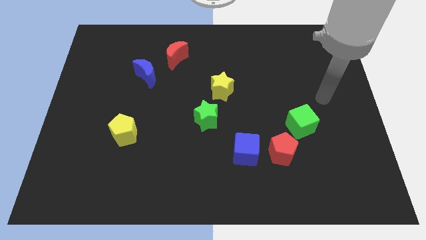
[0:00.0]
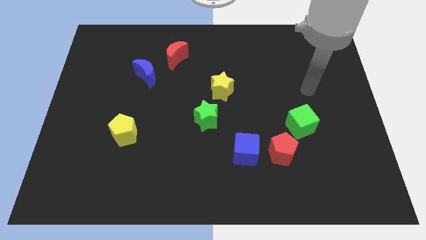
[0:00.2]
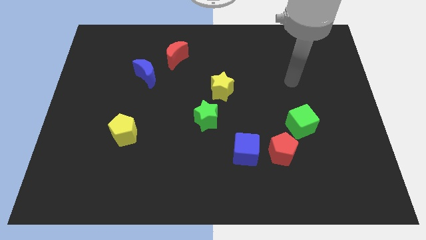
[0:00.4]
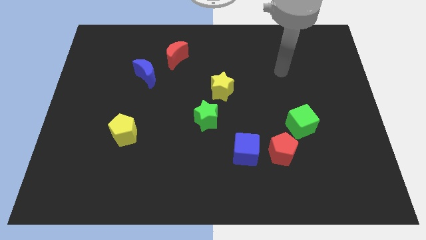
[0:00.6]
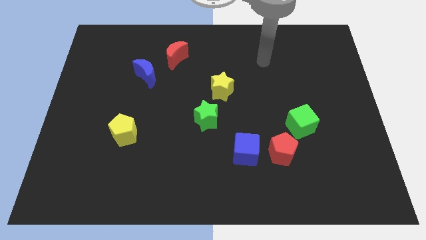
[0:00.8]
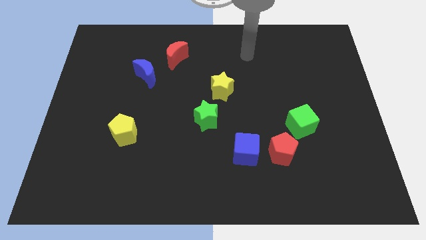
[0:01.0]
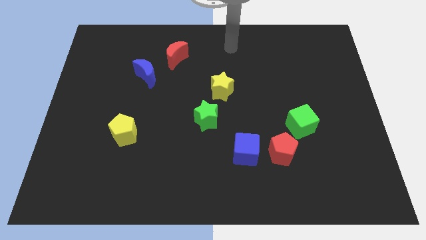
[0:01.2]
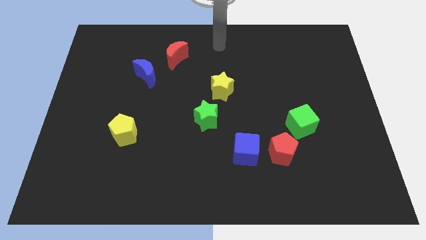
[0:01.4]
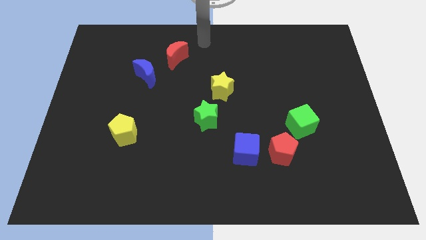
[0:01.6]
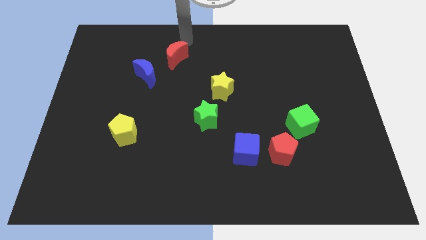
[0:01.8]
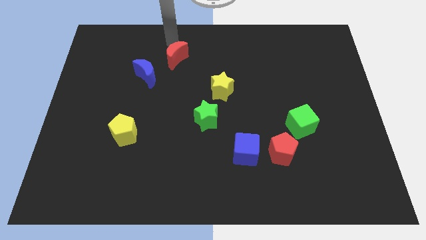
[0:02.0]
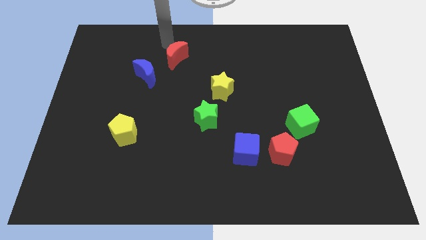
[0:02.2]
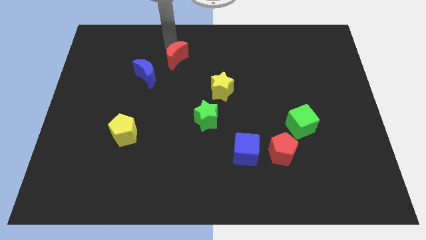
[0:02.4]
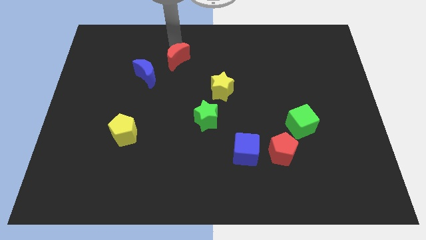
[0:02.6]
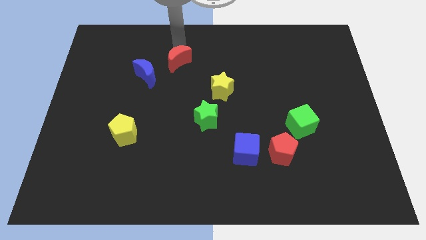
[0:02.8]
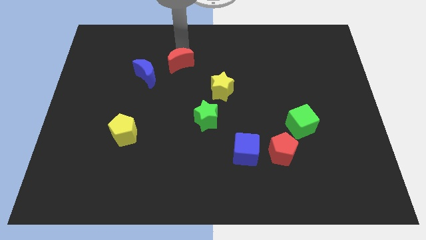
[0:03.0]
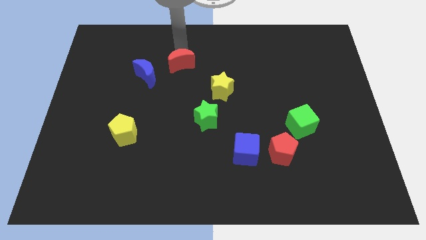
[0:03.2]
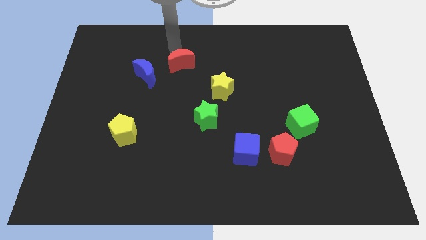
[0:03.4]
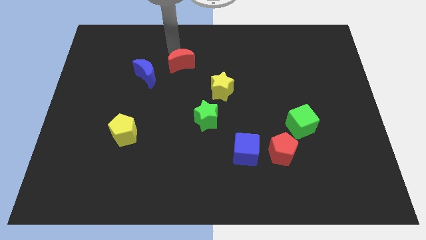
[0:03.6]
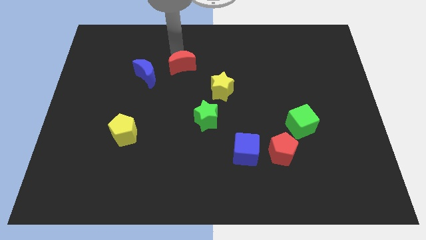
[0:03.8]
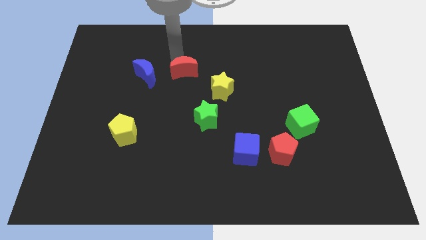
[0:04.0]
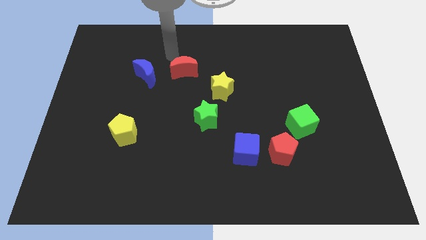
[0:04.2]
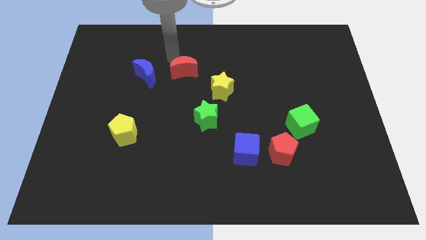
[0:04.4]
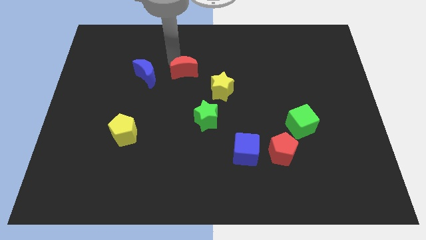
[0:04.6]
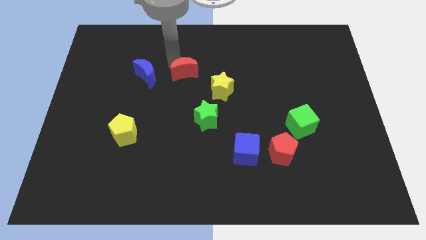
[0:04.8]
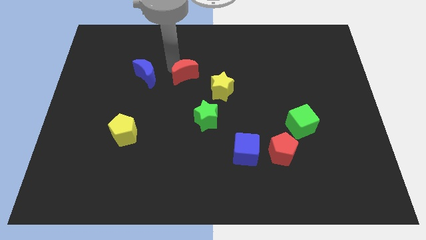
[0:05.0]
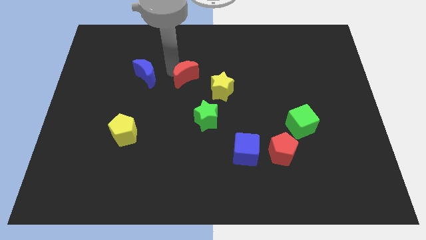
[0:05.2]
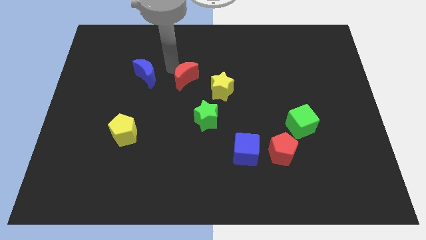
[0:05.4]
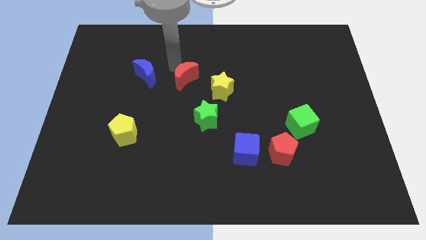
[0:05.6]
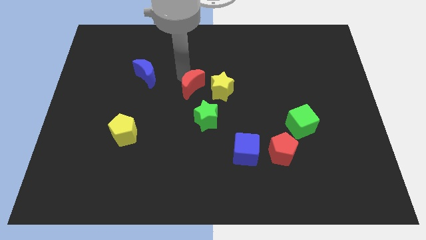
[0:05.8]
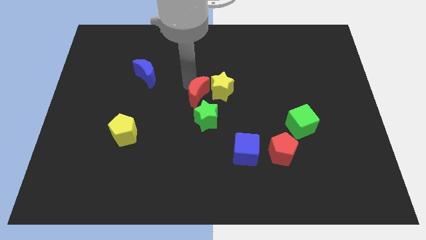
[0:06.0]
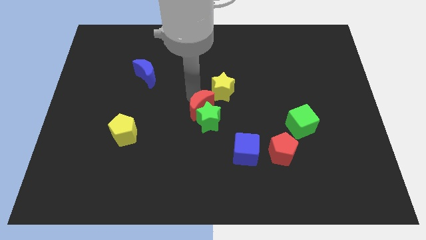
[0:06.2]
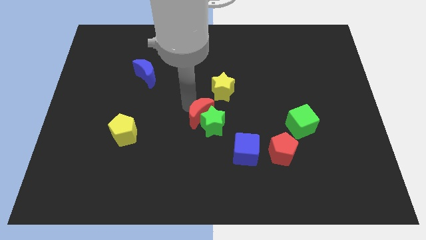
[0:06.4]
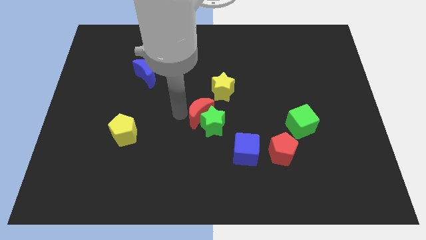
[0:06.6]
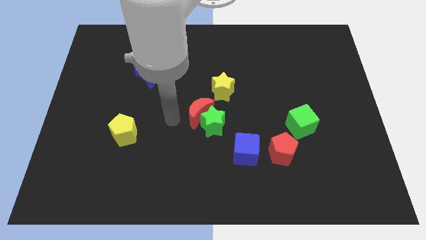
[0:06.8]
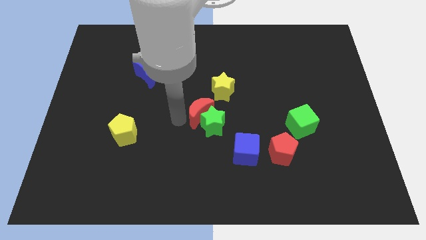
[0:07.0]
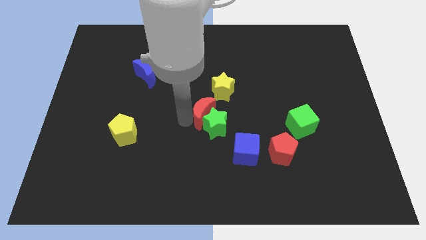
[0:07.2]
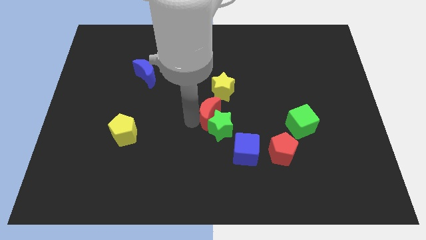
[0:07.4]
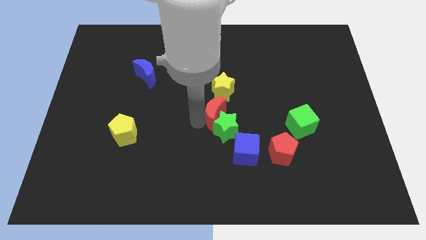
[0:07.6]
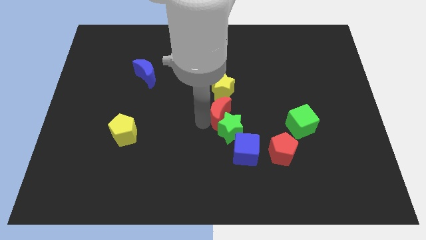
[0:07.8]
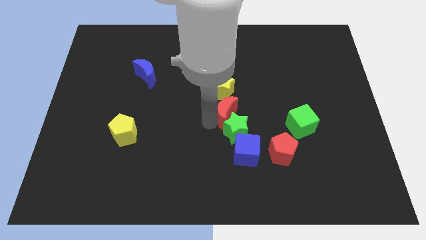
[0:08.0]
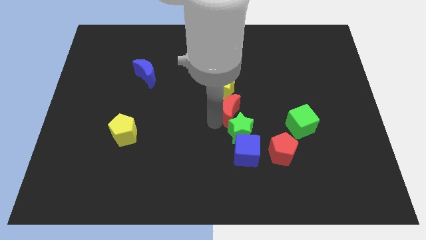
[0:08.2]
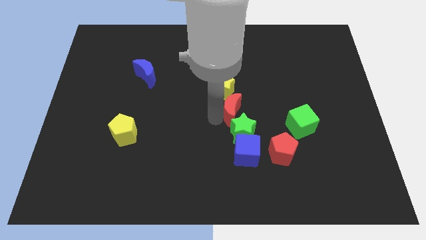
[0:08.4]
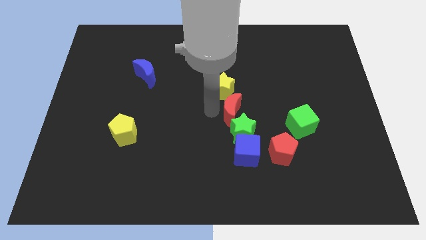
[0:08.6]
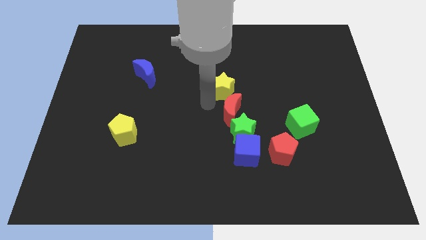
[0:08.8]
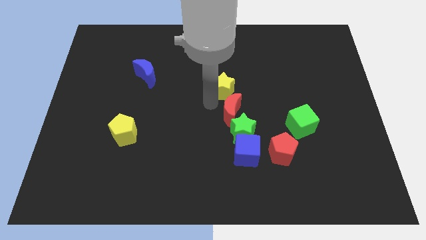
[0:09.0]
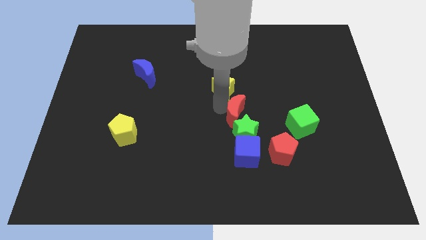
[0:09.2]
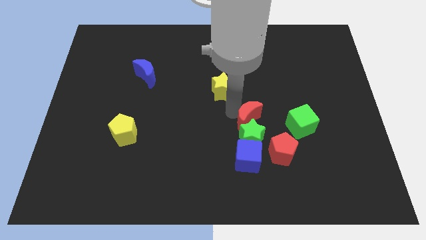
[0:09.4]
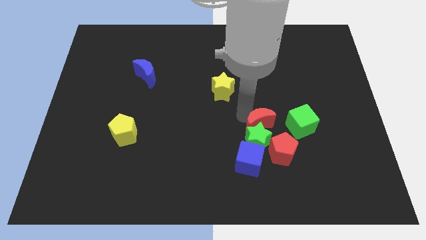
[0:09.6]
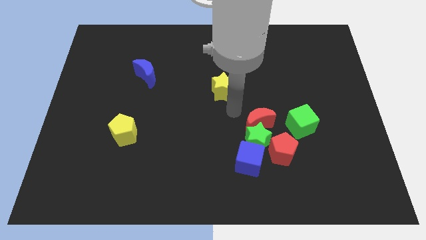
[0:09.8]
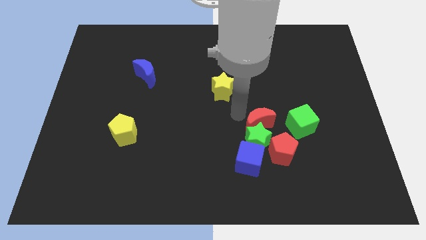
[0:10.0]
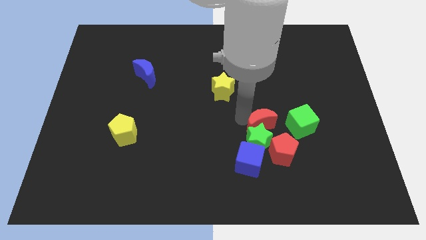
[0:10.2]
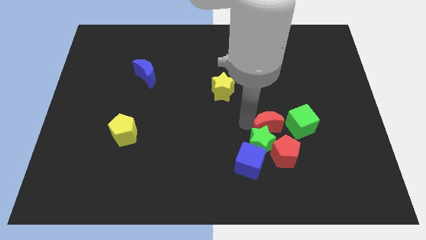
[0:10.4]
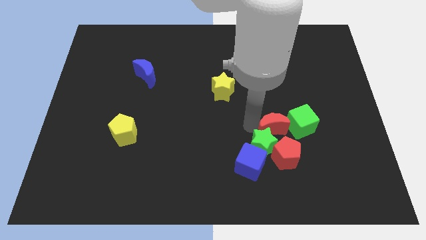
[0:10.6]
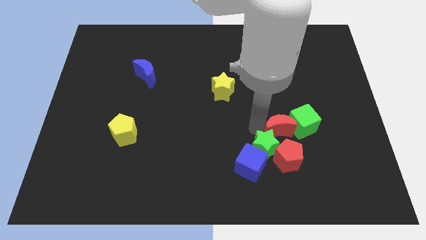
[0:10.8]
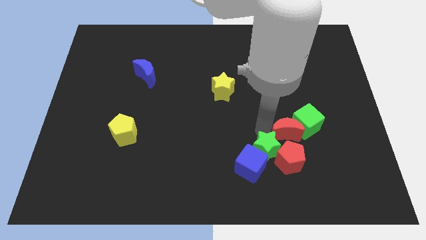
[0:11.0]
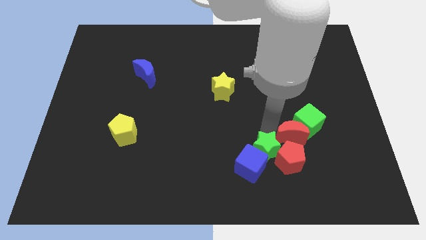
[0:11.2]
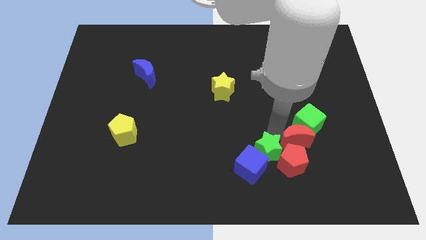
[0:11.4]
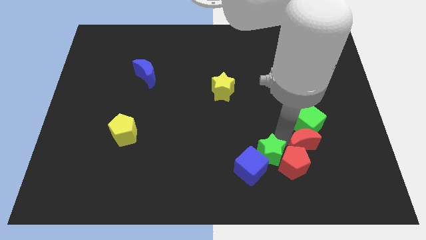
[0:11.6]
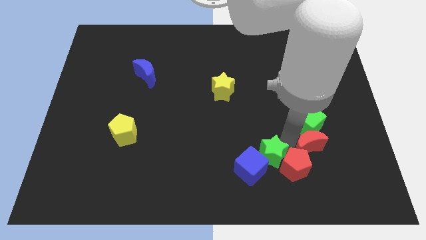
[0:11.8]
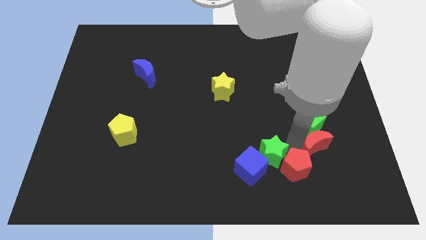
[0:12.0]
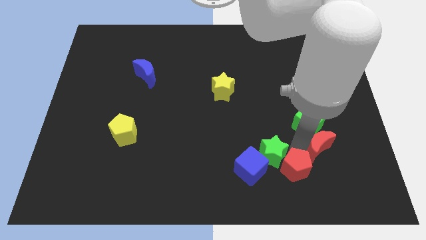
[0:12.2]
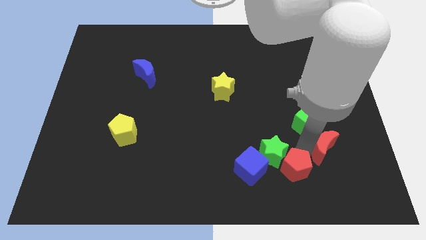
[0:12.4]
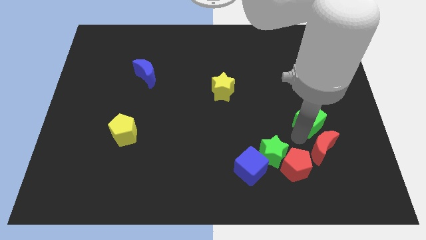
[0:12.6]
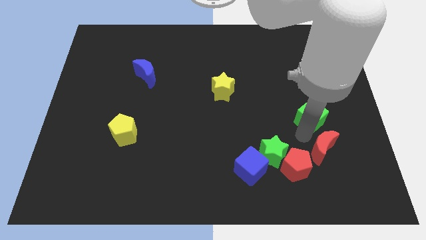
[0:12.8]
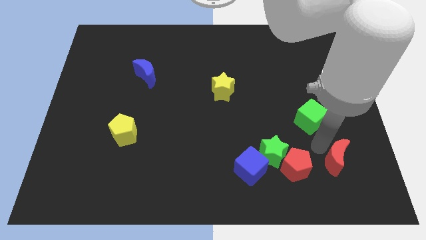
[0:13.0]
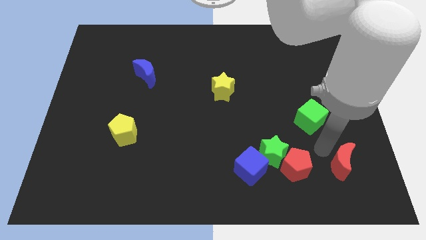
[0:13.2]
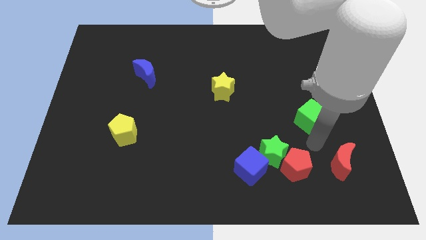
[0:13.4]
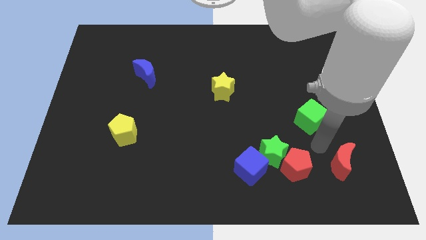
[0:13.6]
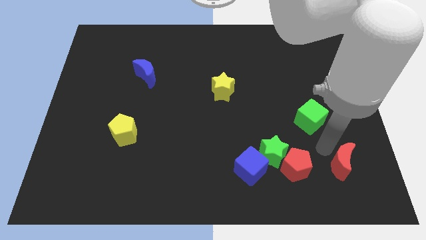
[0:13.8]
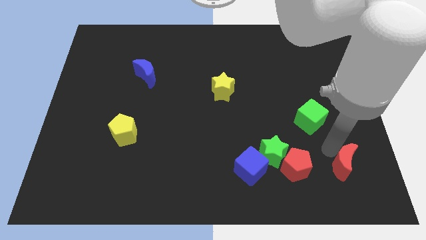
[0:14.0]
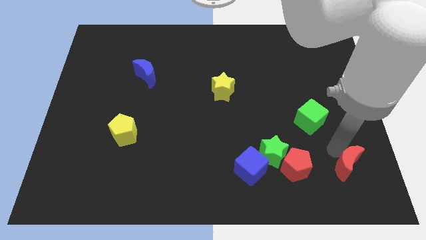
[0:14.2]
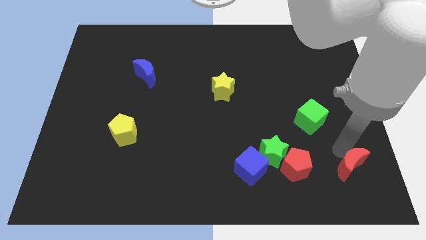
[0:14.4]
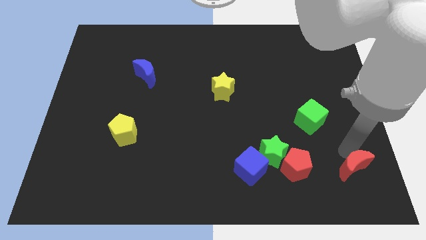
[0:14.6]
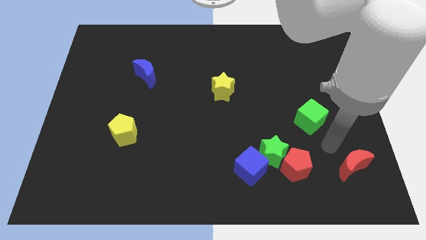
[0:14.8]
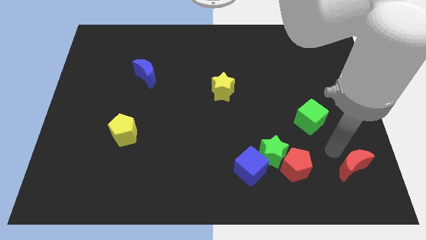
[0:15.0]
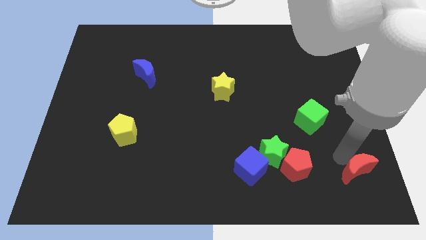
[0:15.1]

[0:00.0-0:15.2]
put the red moon to the bottom right corner
